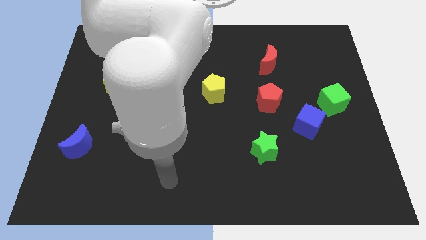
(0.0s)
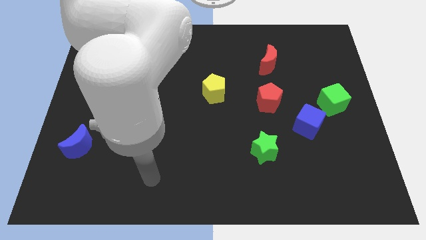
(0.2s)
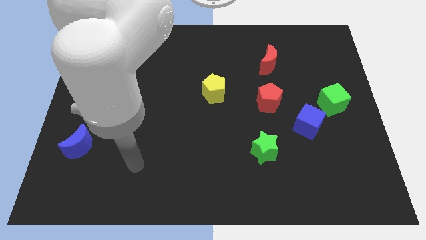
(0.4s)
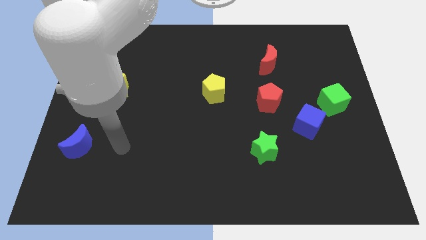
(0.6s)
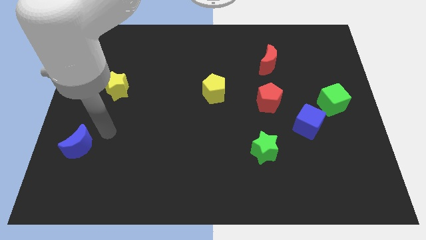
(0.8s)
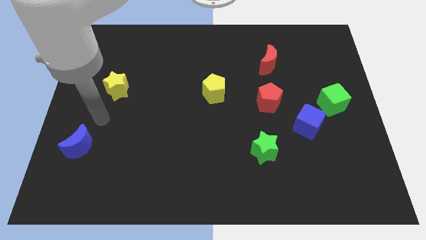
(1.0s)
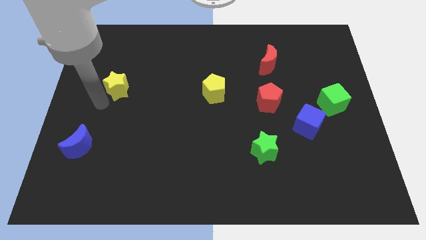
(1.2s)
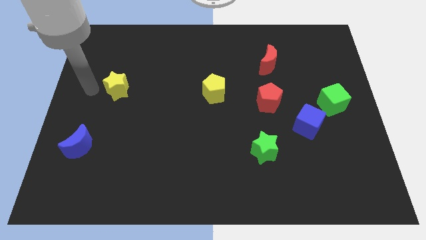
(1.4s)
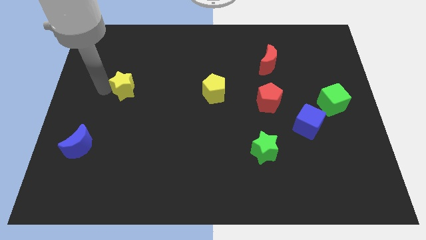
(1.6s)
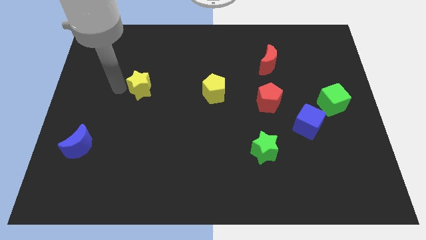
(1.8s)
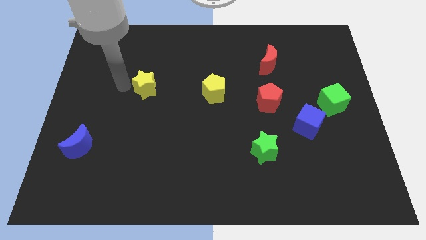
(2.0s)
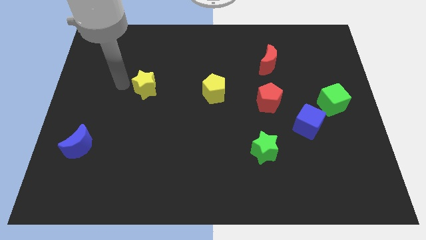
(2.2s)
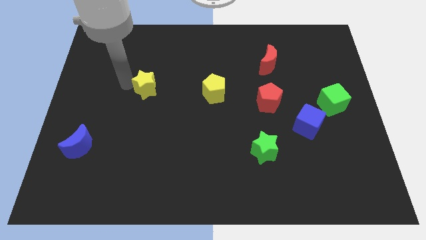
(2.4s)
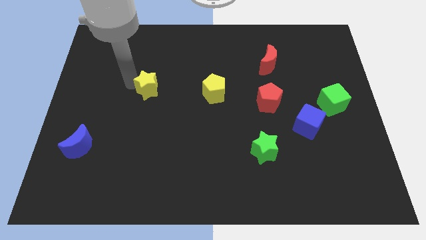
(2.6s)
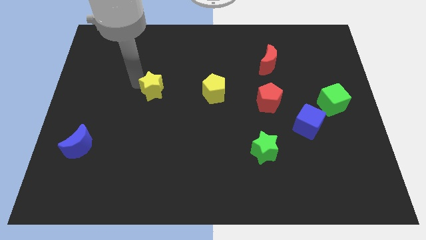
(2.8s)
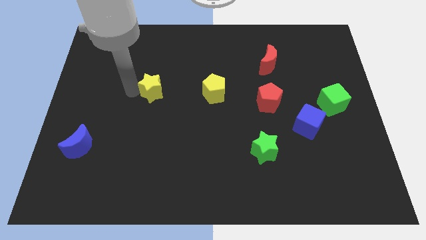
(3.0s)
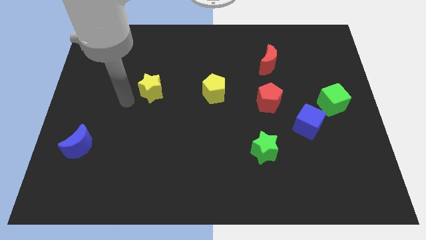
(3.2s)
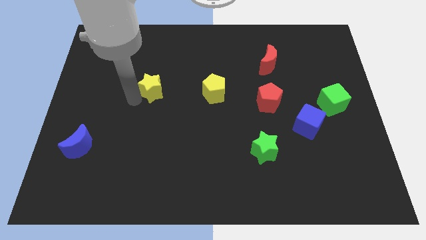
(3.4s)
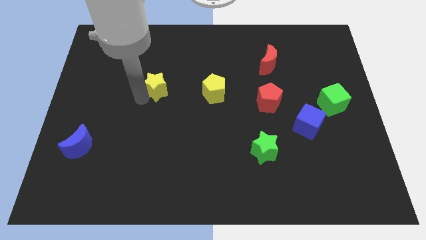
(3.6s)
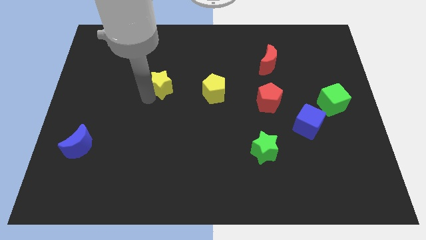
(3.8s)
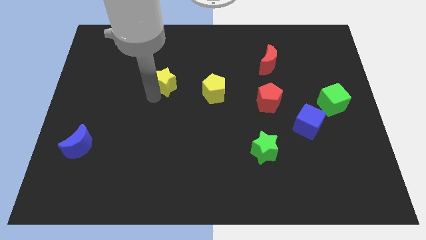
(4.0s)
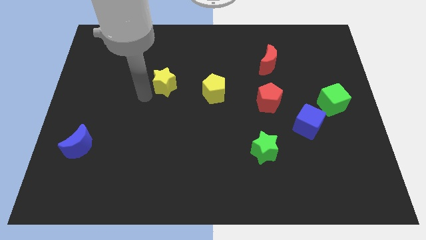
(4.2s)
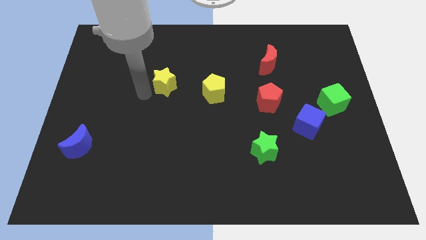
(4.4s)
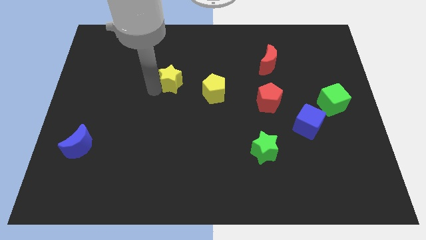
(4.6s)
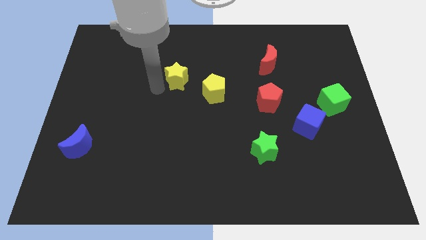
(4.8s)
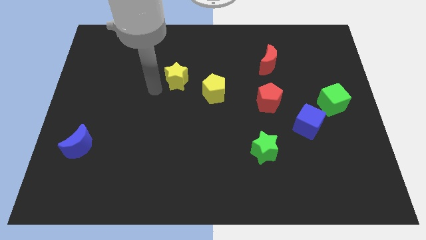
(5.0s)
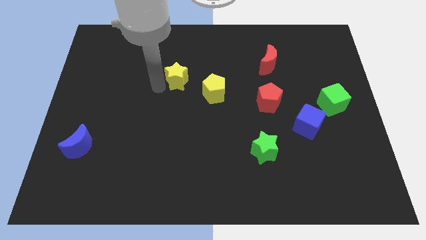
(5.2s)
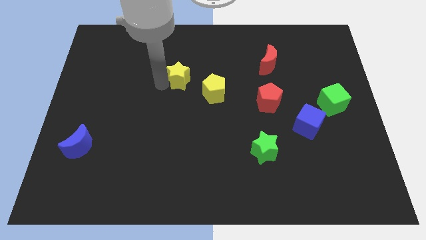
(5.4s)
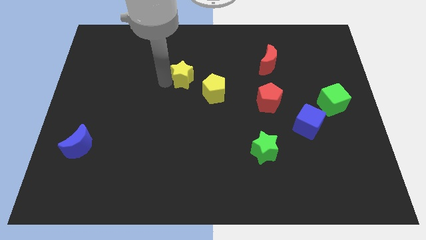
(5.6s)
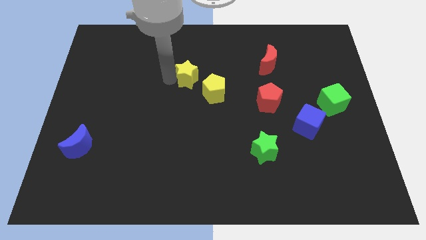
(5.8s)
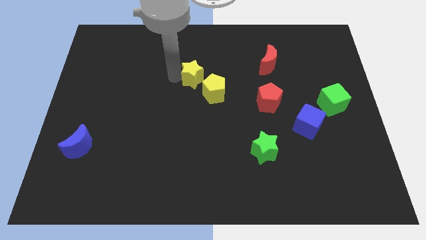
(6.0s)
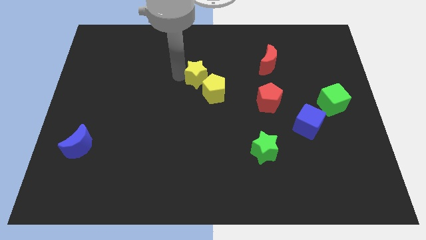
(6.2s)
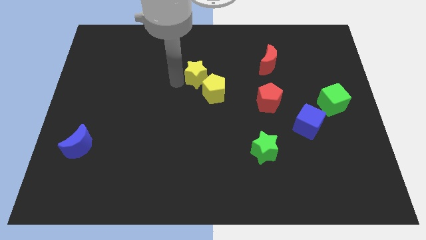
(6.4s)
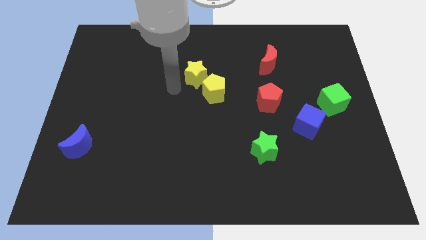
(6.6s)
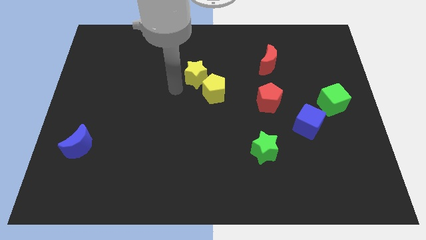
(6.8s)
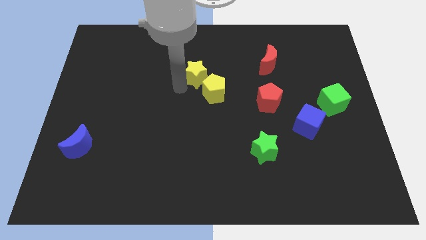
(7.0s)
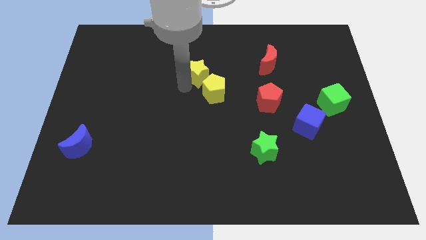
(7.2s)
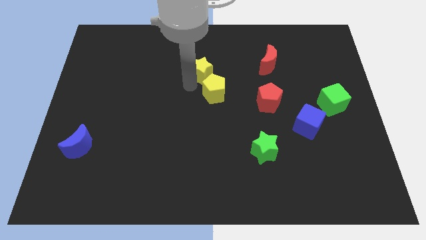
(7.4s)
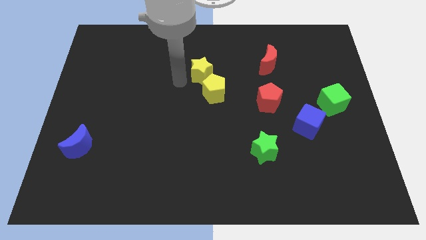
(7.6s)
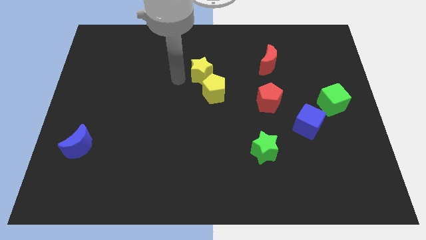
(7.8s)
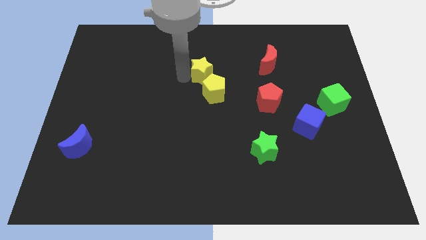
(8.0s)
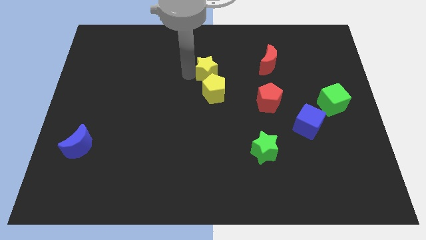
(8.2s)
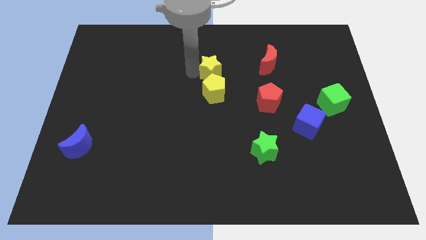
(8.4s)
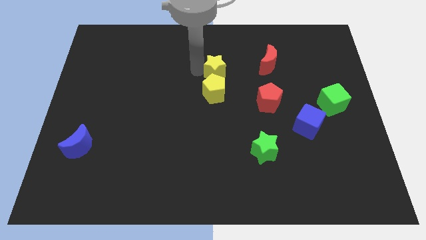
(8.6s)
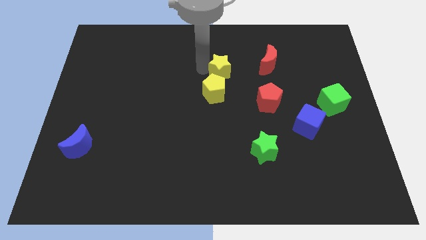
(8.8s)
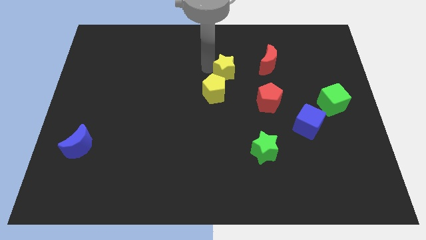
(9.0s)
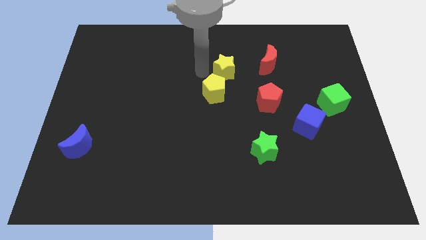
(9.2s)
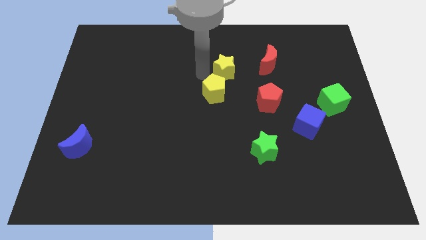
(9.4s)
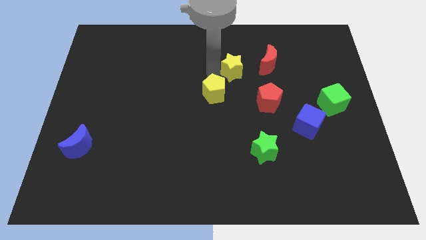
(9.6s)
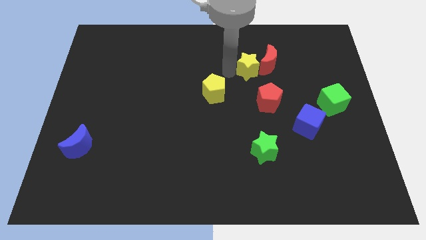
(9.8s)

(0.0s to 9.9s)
slide the yellow star close to the red moon

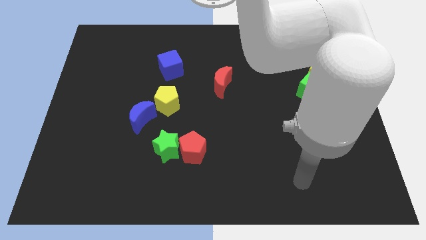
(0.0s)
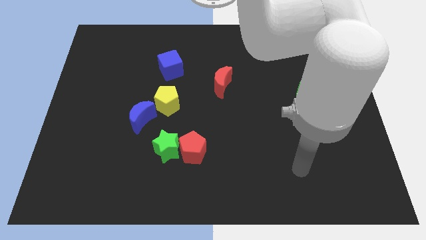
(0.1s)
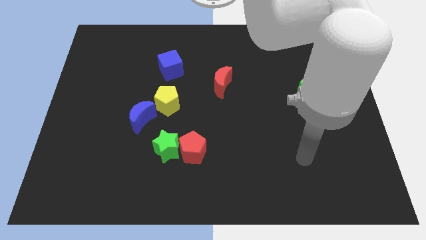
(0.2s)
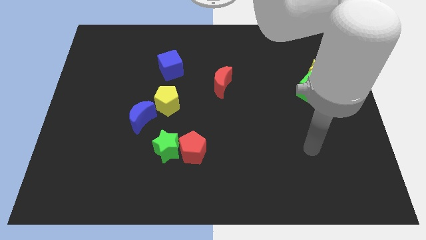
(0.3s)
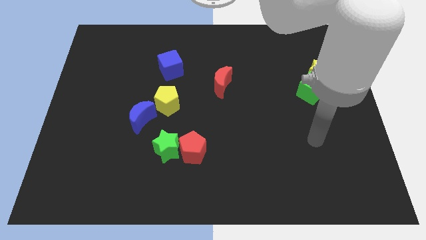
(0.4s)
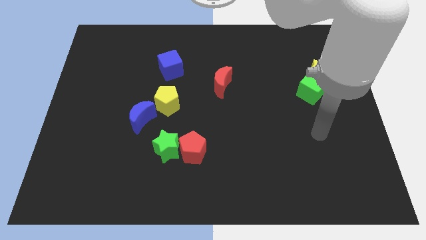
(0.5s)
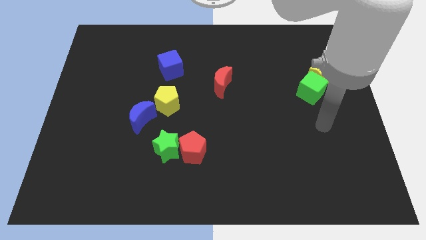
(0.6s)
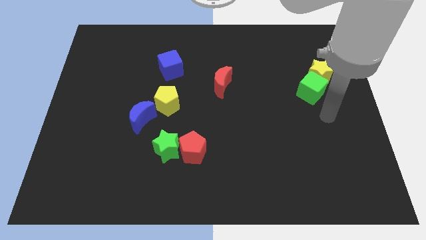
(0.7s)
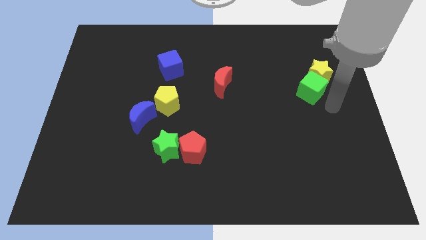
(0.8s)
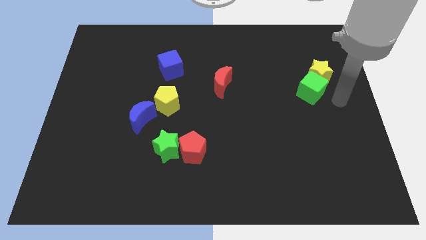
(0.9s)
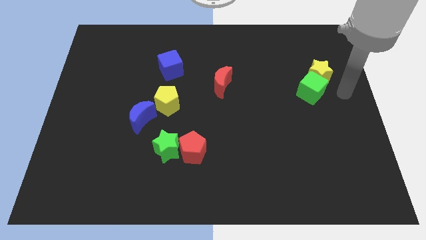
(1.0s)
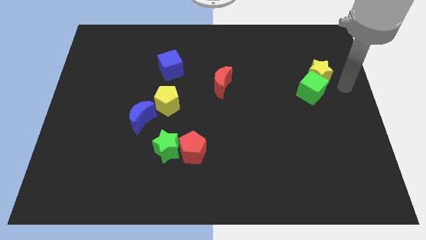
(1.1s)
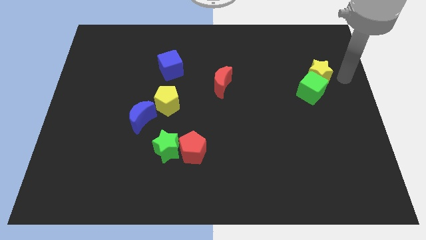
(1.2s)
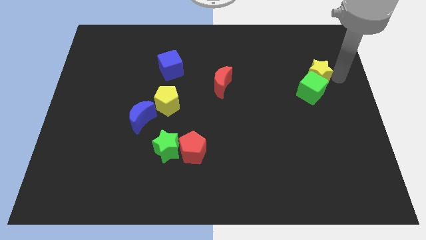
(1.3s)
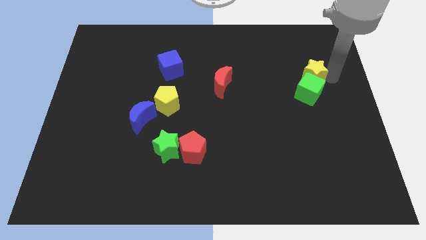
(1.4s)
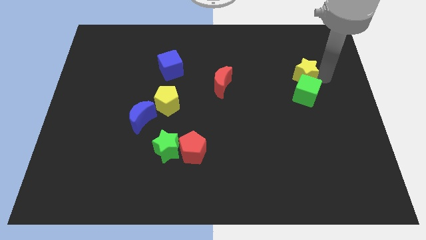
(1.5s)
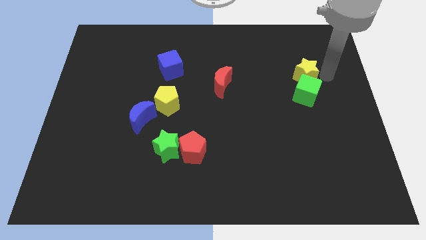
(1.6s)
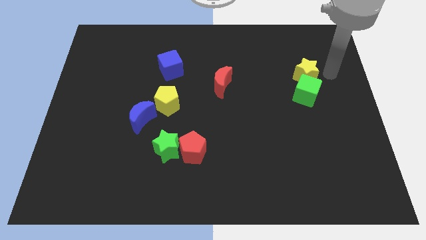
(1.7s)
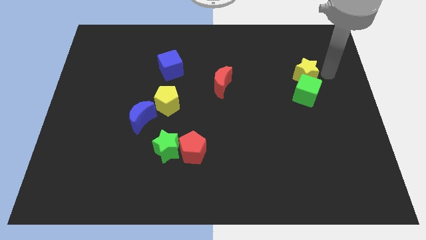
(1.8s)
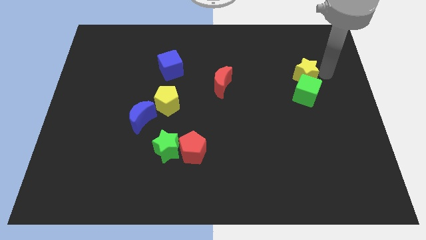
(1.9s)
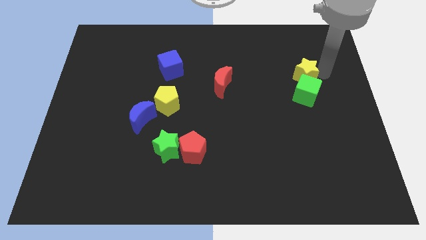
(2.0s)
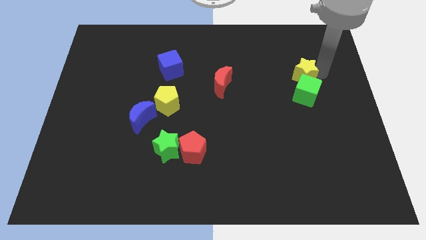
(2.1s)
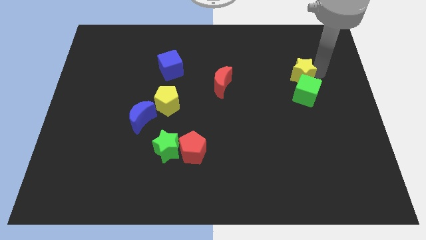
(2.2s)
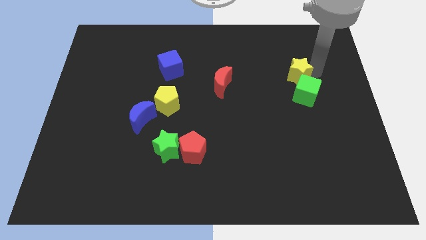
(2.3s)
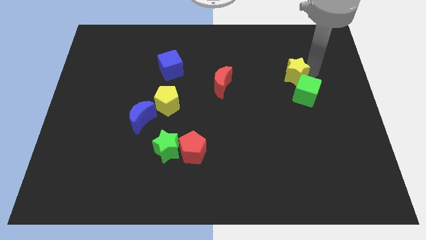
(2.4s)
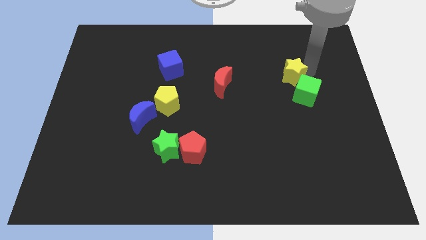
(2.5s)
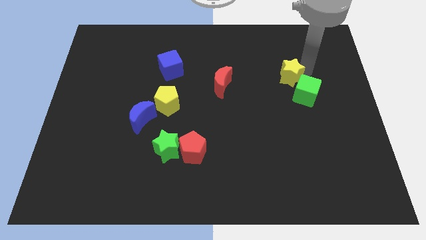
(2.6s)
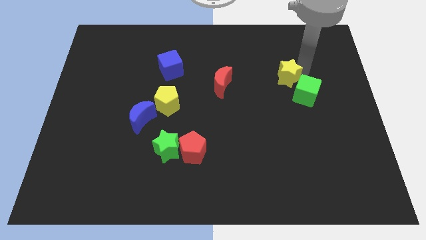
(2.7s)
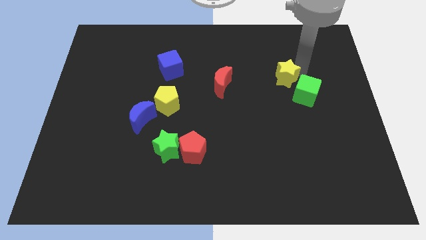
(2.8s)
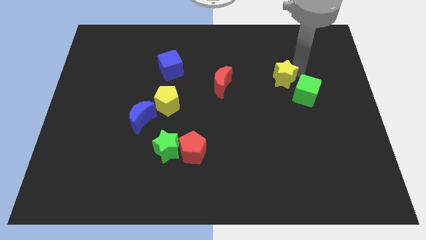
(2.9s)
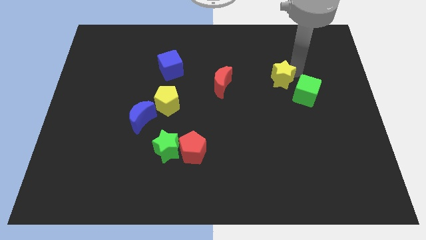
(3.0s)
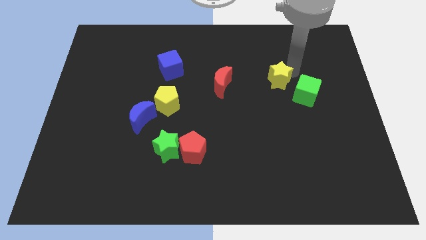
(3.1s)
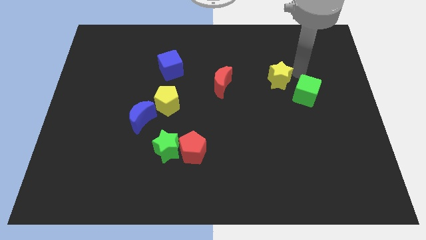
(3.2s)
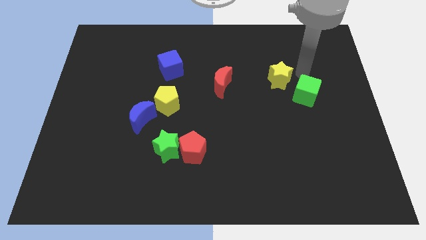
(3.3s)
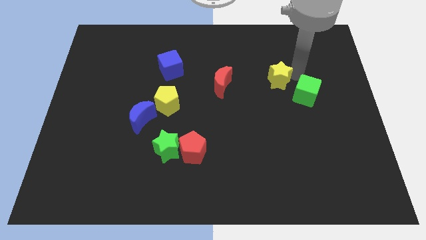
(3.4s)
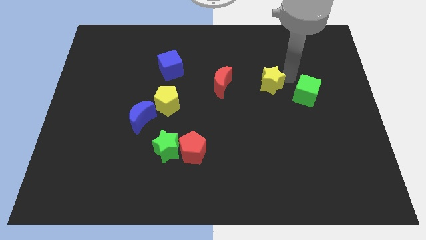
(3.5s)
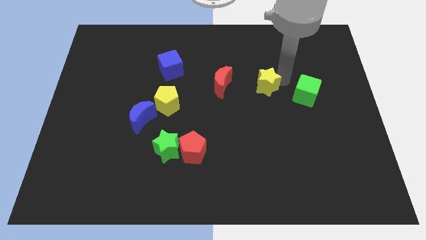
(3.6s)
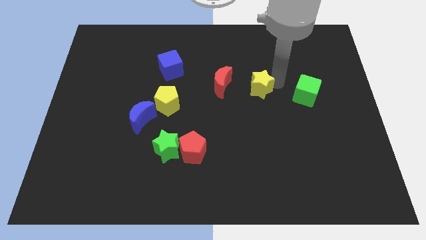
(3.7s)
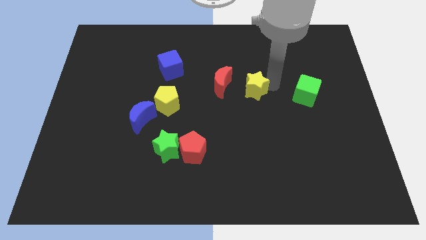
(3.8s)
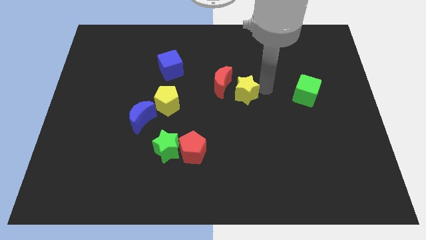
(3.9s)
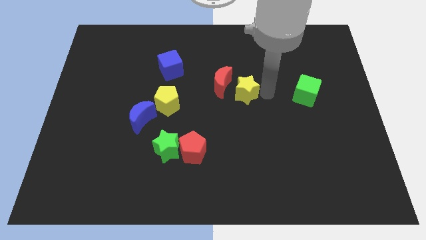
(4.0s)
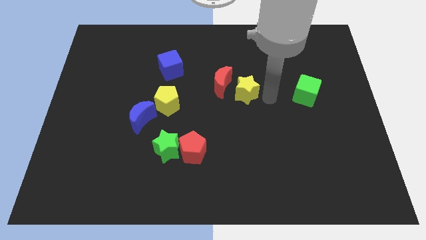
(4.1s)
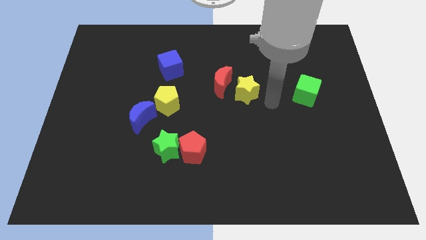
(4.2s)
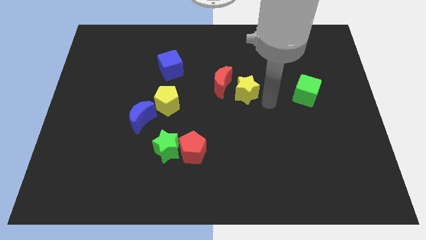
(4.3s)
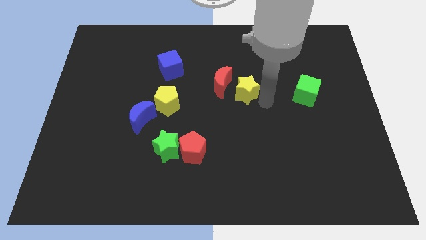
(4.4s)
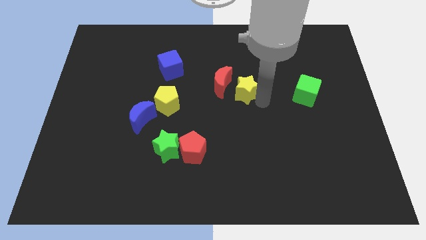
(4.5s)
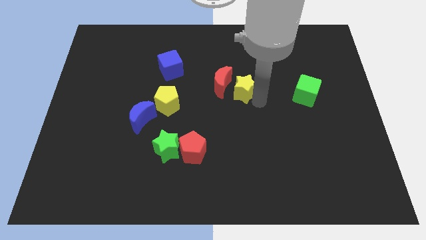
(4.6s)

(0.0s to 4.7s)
put the yellow star close to the red moon
